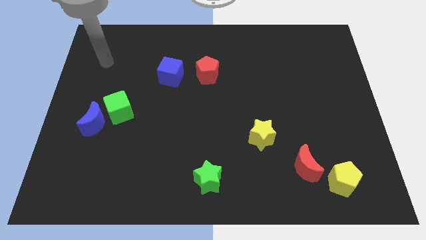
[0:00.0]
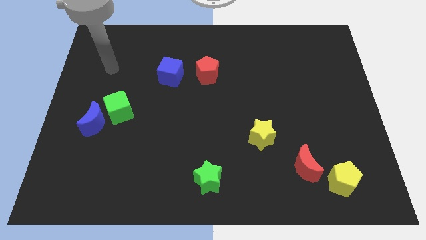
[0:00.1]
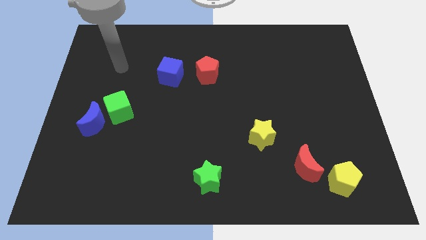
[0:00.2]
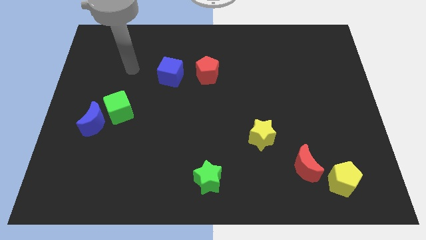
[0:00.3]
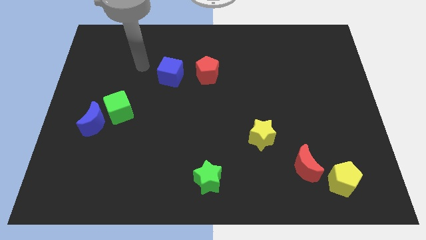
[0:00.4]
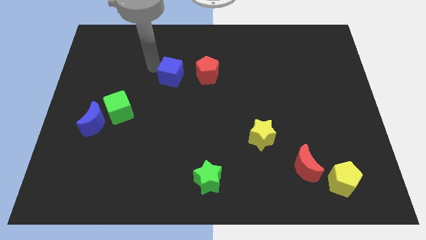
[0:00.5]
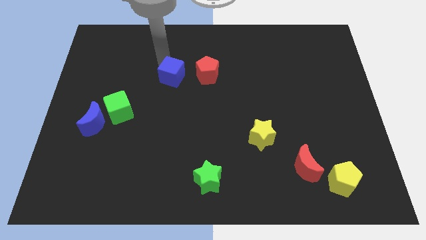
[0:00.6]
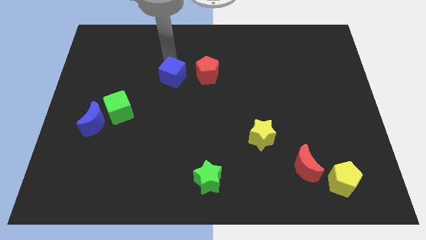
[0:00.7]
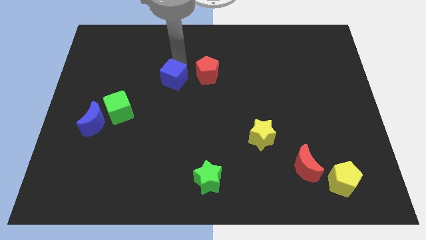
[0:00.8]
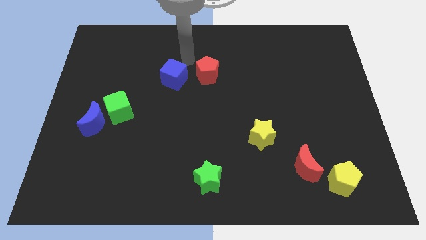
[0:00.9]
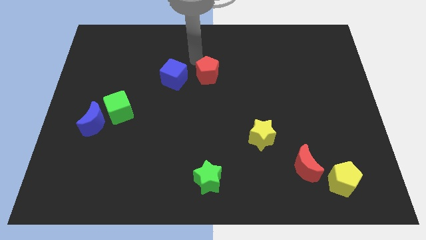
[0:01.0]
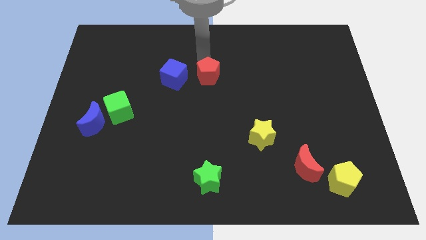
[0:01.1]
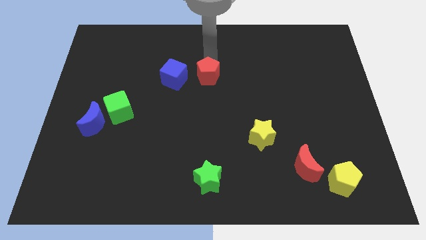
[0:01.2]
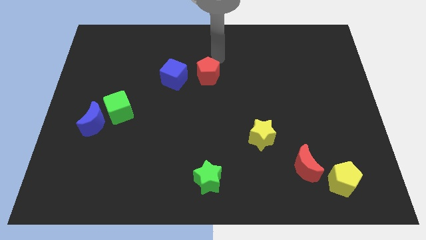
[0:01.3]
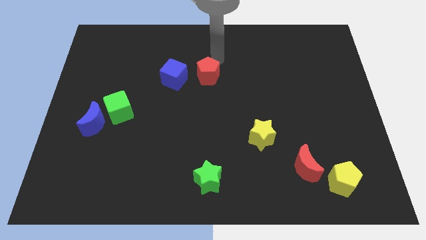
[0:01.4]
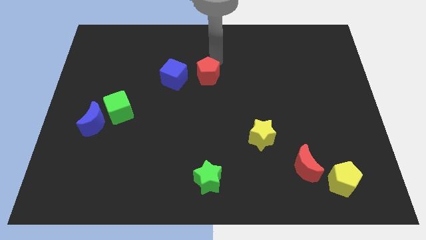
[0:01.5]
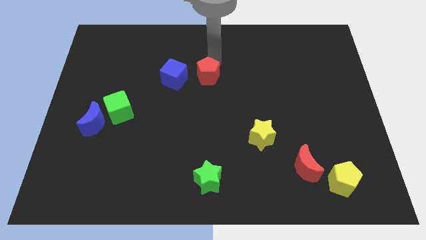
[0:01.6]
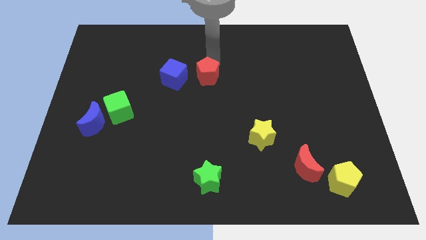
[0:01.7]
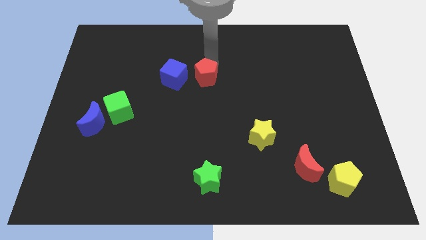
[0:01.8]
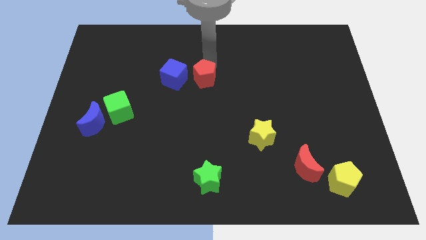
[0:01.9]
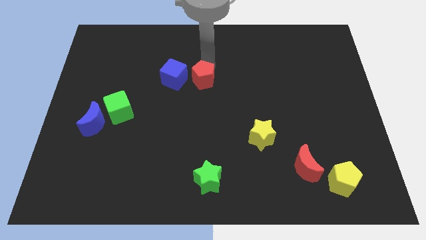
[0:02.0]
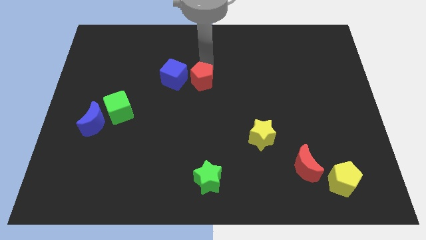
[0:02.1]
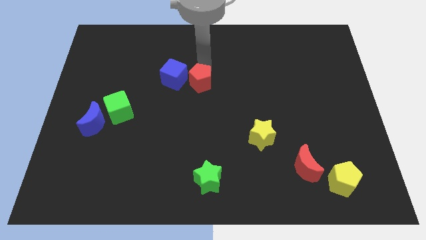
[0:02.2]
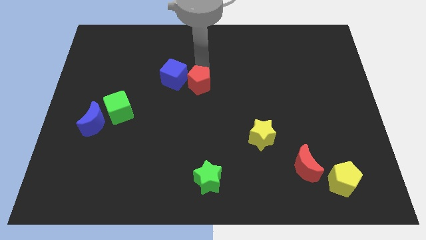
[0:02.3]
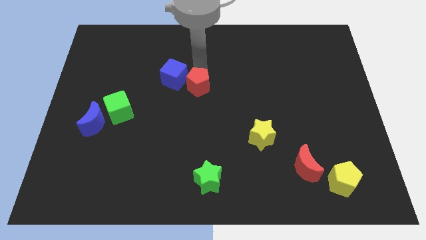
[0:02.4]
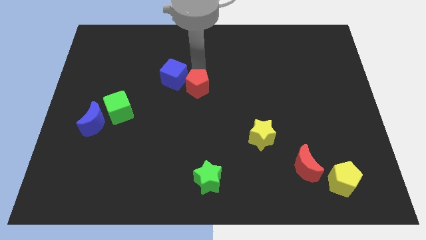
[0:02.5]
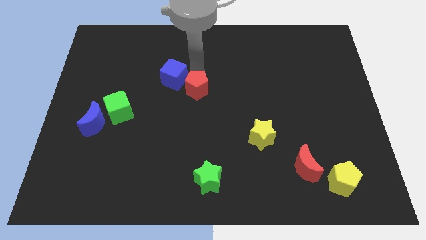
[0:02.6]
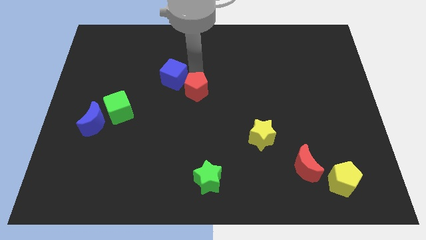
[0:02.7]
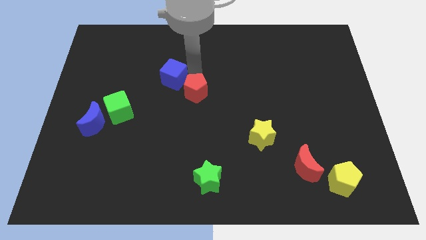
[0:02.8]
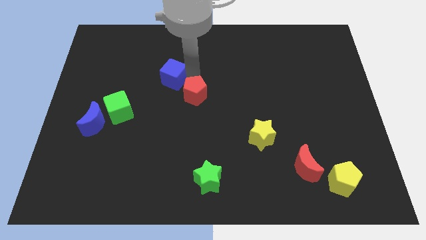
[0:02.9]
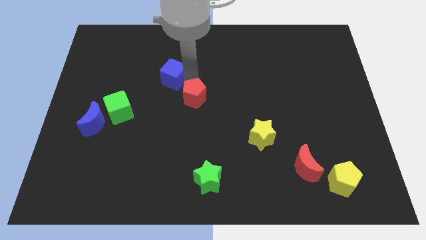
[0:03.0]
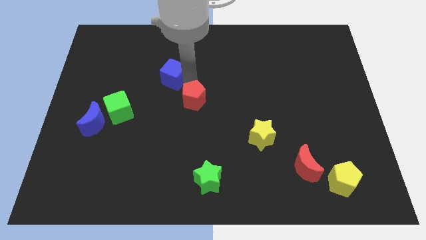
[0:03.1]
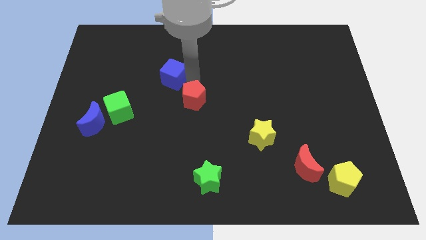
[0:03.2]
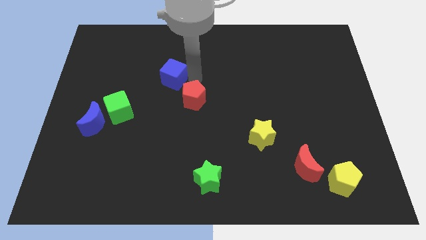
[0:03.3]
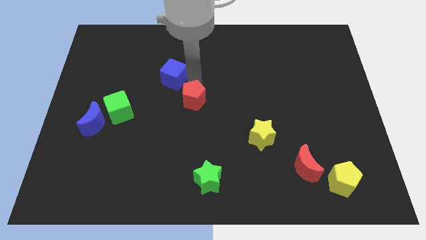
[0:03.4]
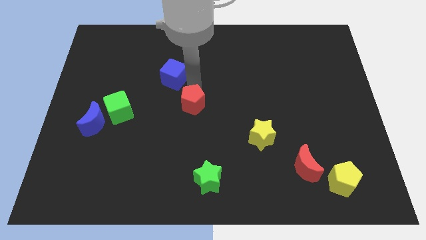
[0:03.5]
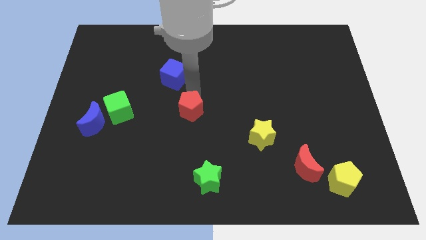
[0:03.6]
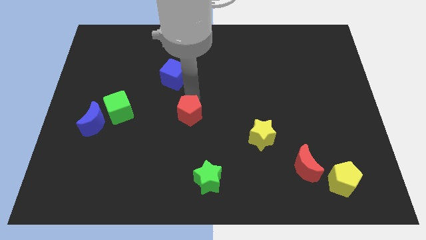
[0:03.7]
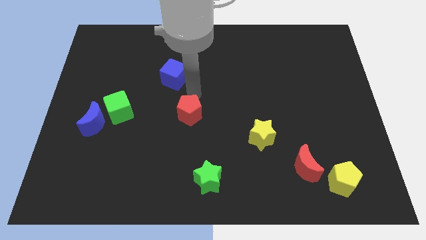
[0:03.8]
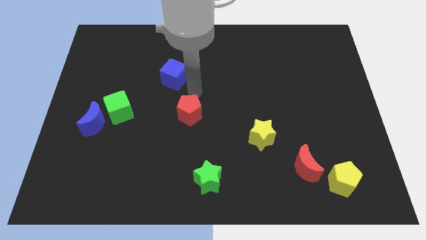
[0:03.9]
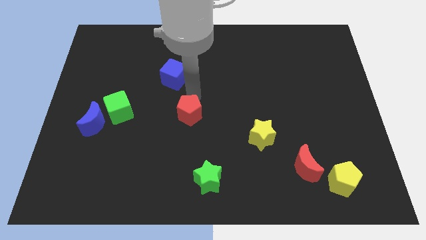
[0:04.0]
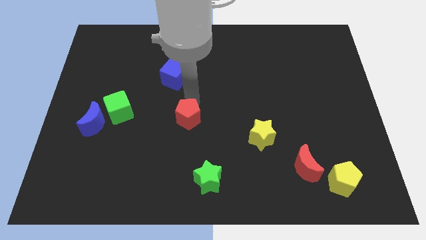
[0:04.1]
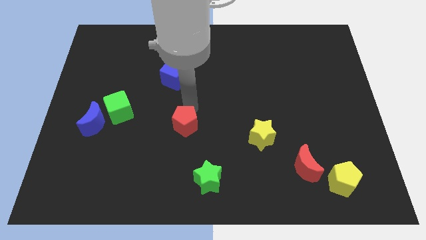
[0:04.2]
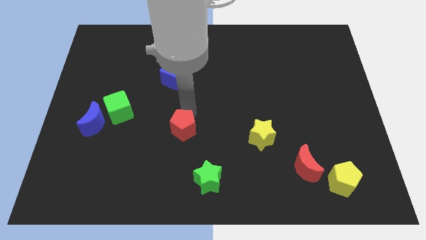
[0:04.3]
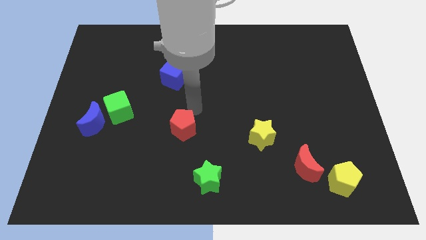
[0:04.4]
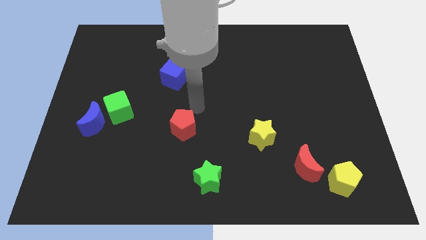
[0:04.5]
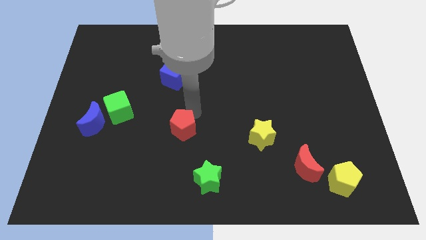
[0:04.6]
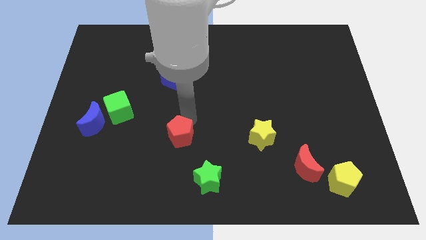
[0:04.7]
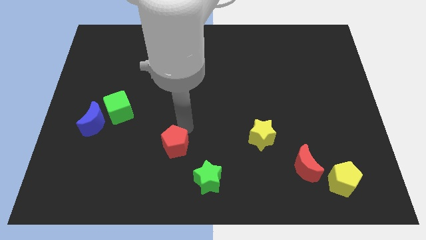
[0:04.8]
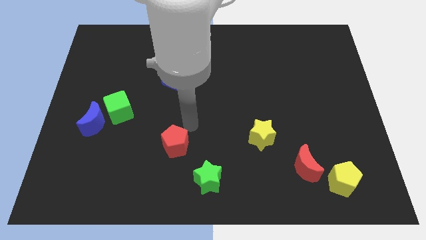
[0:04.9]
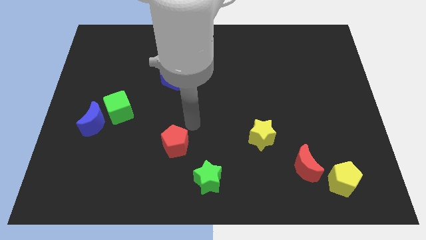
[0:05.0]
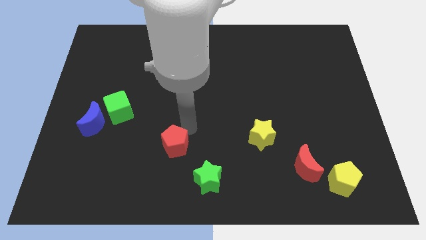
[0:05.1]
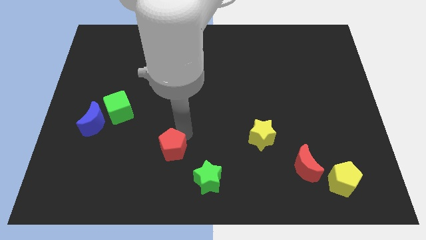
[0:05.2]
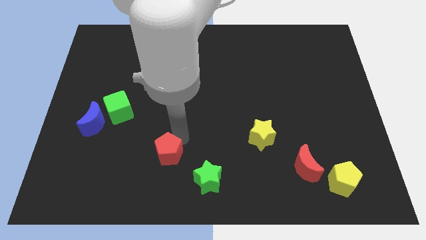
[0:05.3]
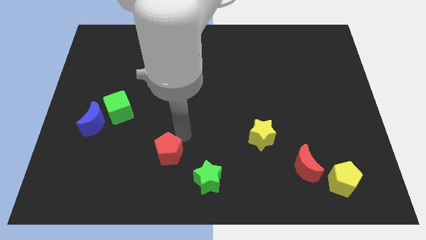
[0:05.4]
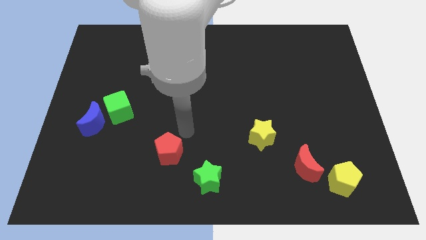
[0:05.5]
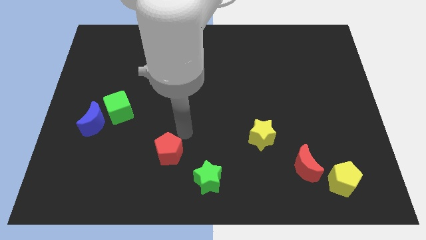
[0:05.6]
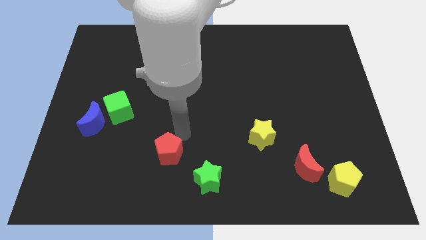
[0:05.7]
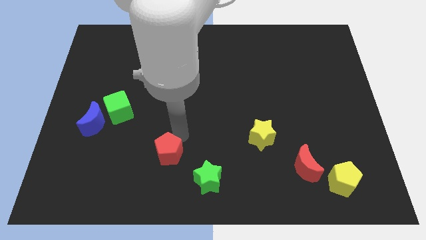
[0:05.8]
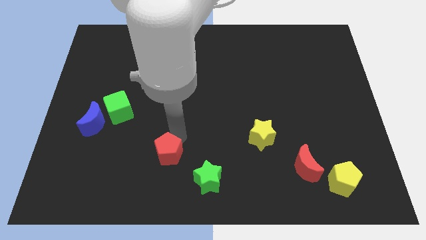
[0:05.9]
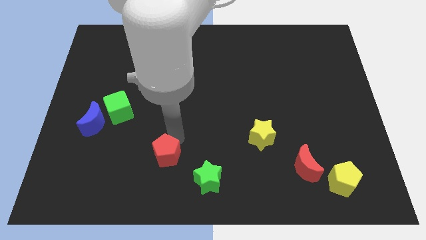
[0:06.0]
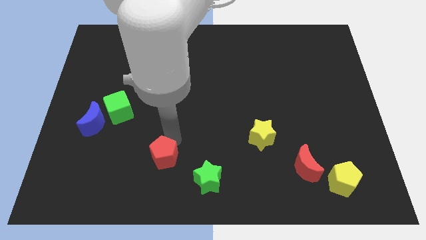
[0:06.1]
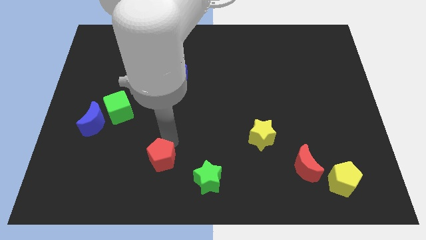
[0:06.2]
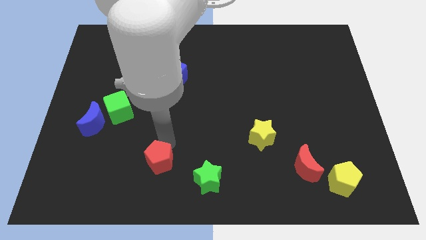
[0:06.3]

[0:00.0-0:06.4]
put the red pentagon just left of the green star

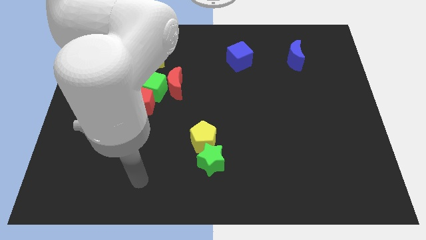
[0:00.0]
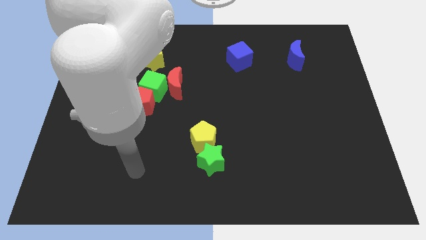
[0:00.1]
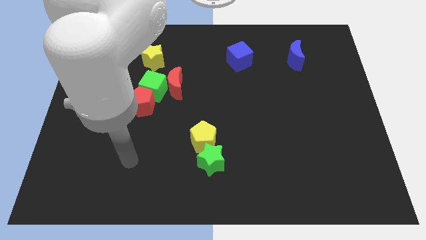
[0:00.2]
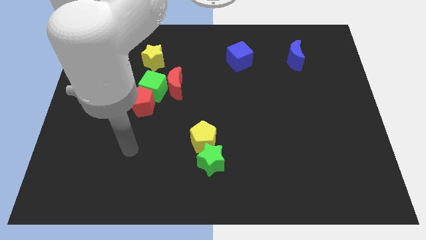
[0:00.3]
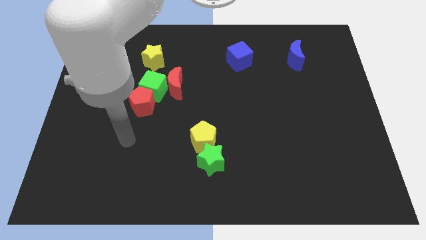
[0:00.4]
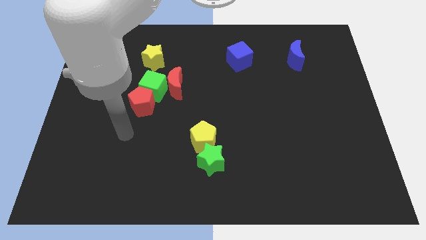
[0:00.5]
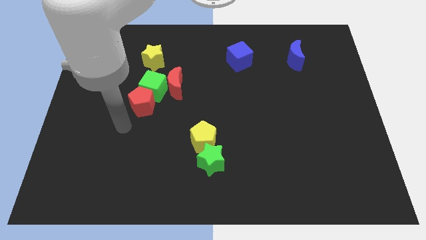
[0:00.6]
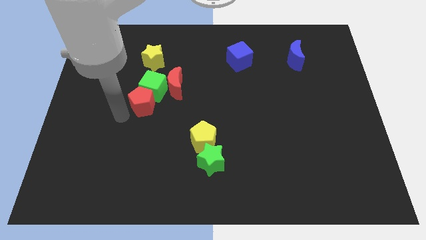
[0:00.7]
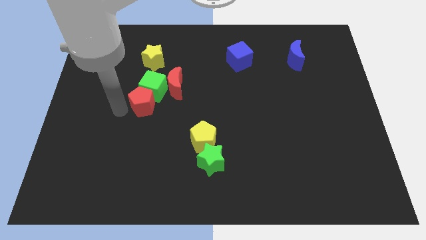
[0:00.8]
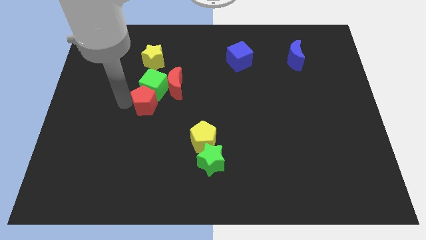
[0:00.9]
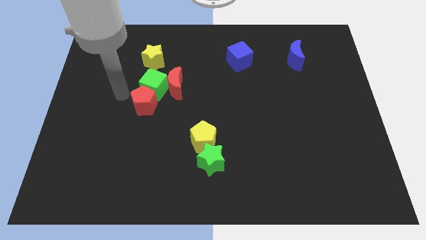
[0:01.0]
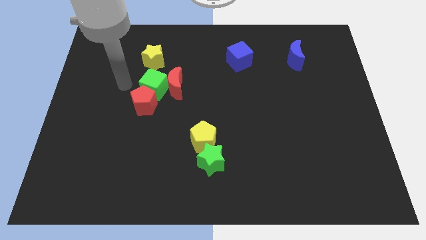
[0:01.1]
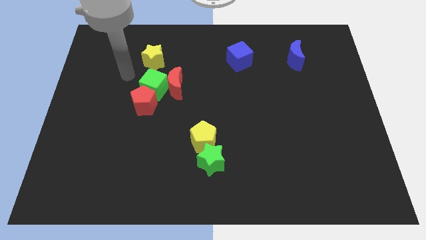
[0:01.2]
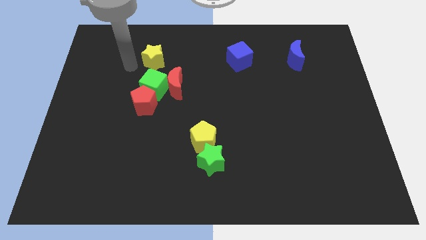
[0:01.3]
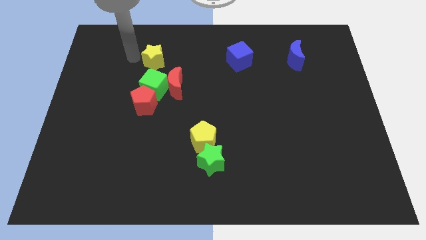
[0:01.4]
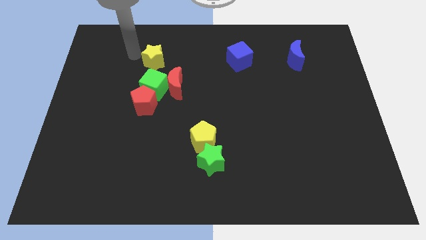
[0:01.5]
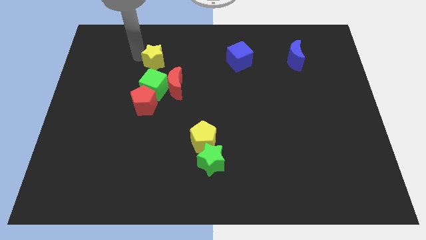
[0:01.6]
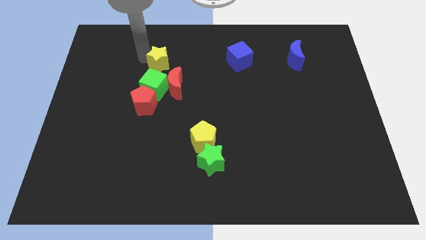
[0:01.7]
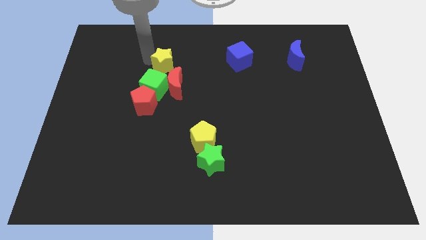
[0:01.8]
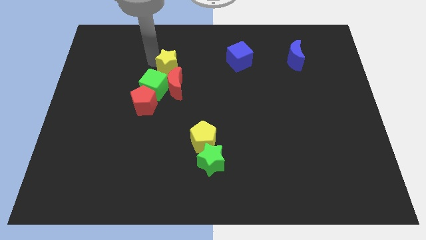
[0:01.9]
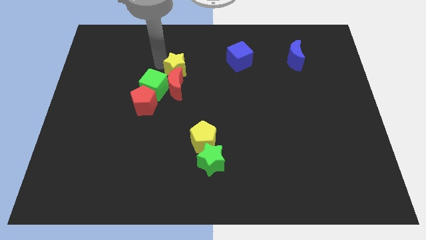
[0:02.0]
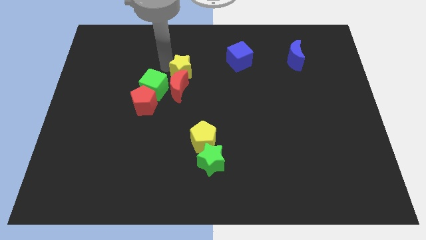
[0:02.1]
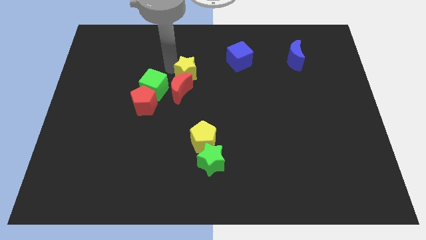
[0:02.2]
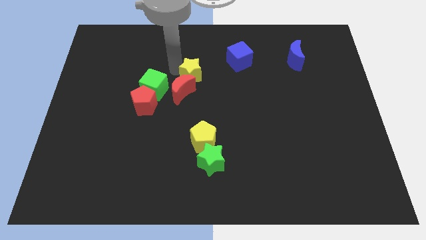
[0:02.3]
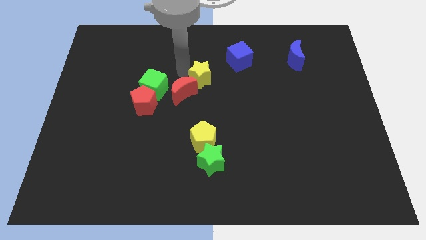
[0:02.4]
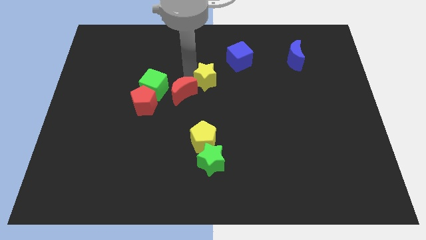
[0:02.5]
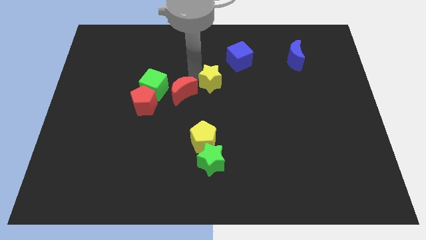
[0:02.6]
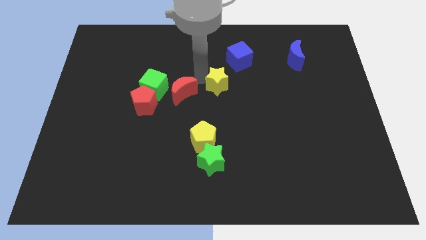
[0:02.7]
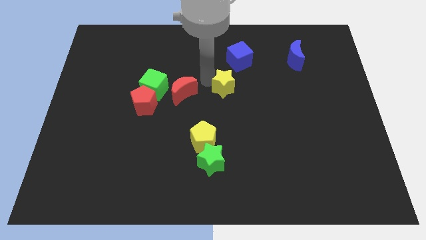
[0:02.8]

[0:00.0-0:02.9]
move the yellow star to the bottom side of the blue cube
